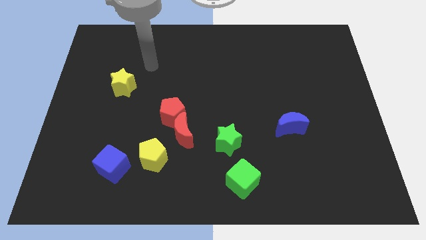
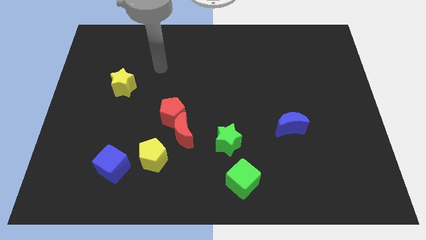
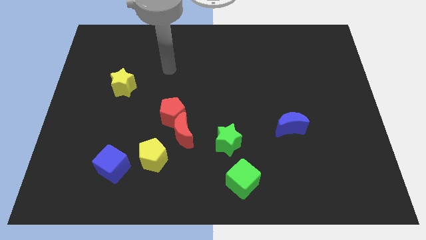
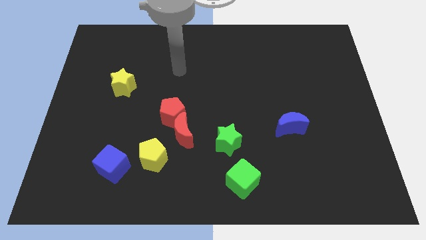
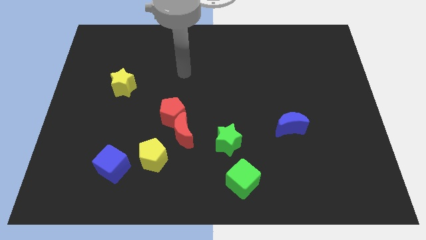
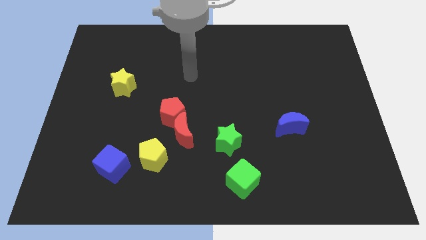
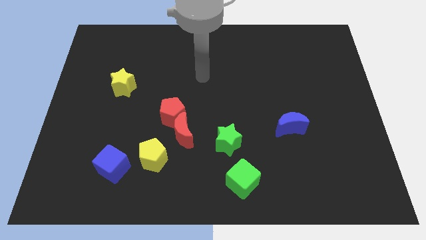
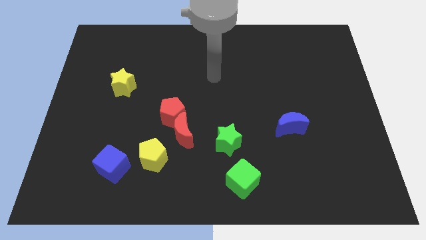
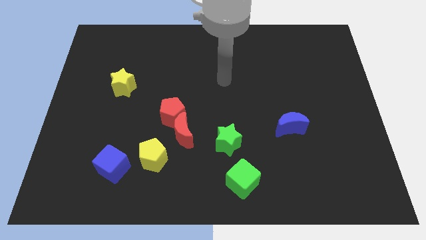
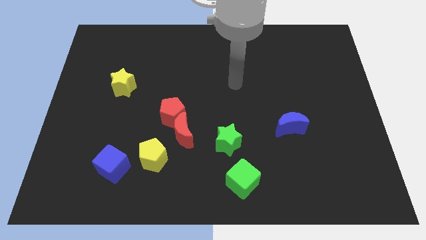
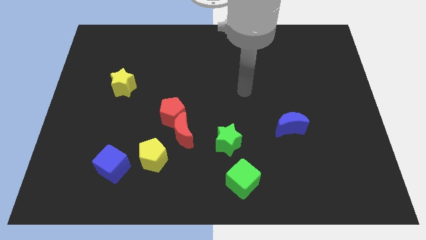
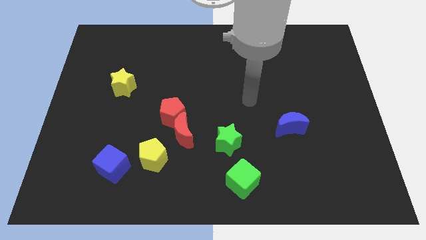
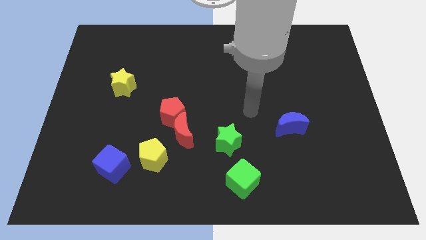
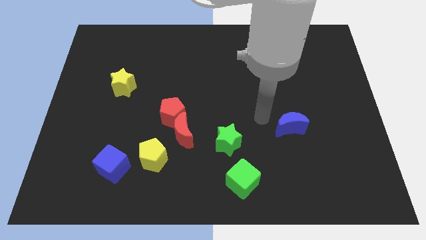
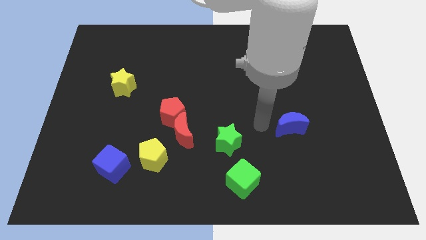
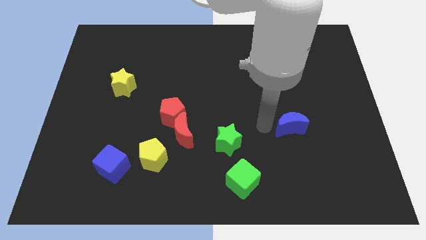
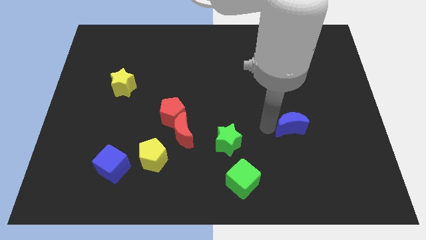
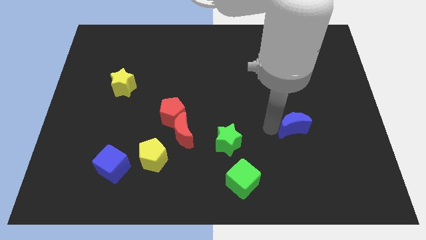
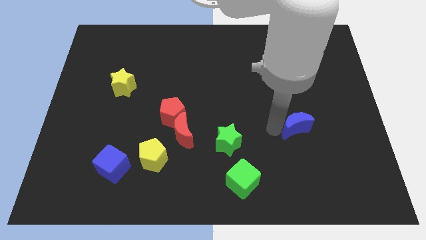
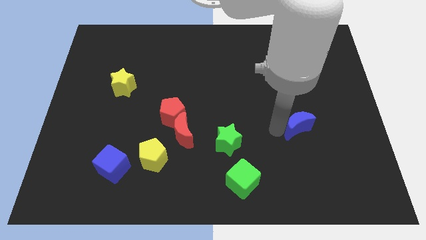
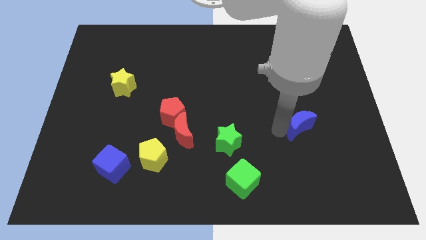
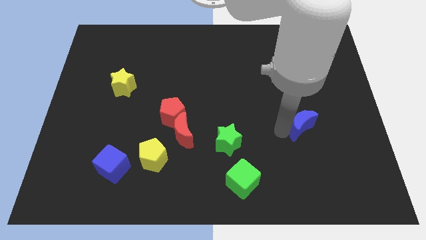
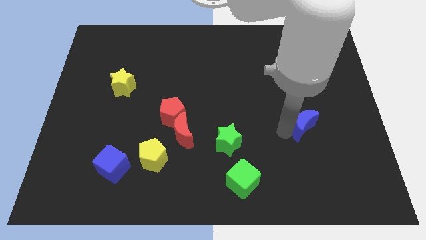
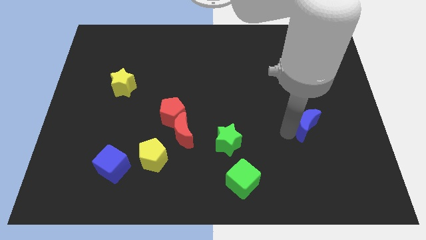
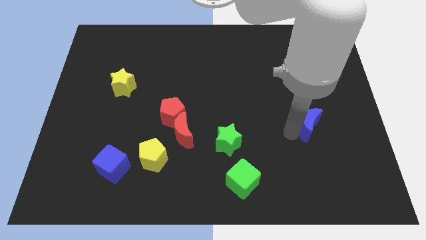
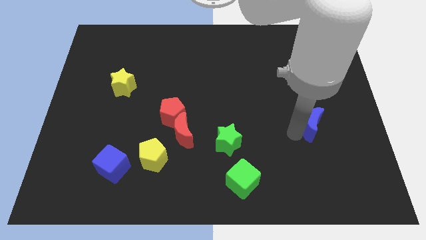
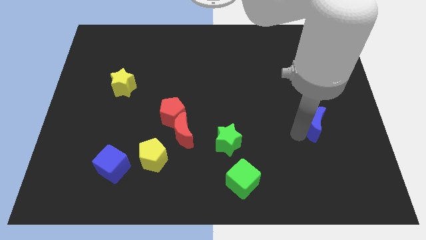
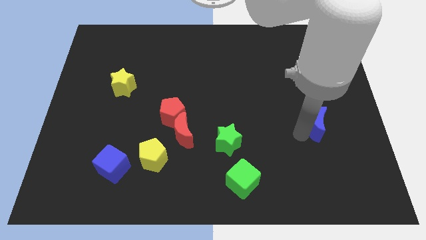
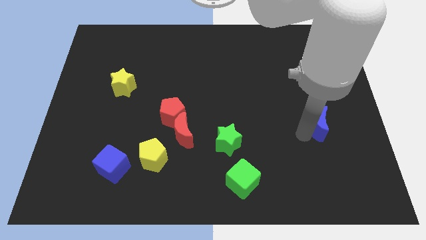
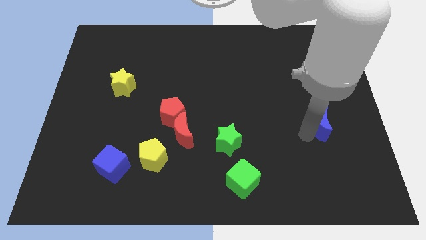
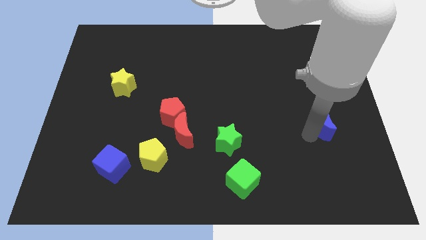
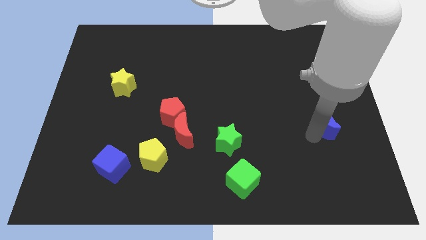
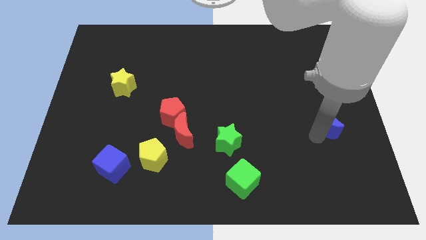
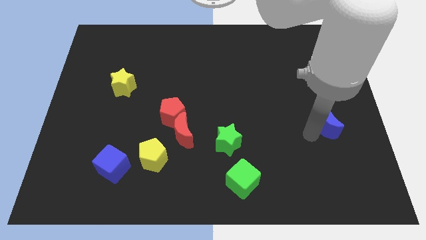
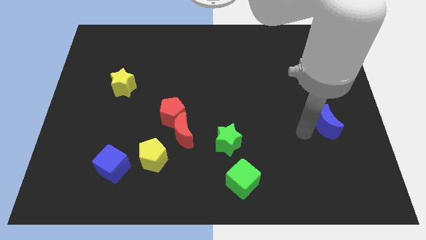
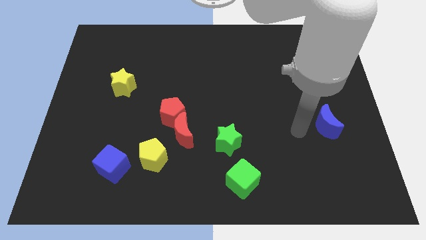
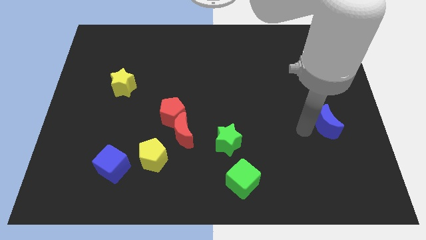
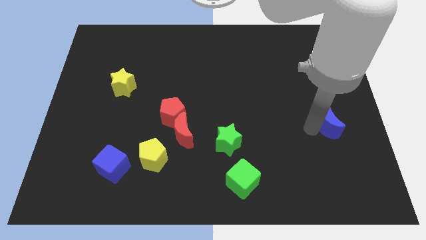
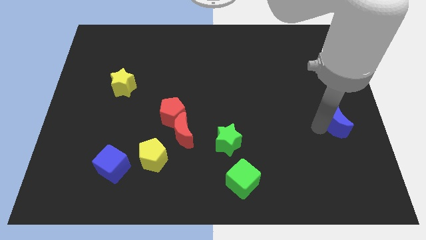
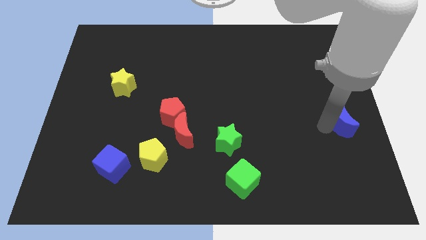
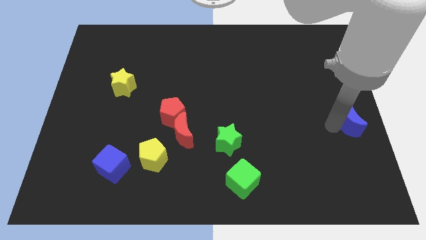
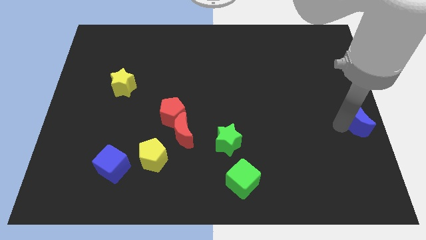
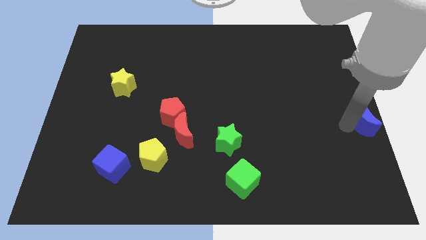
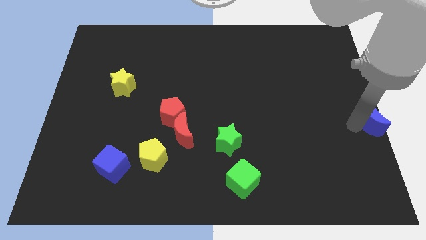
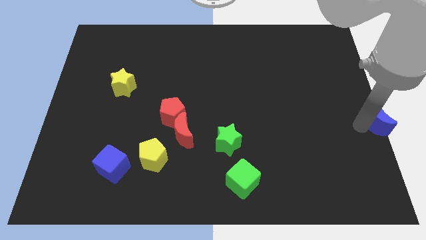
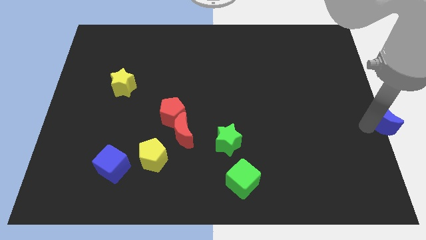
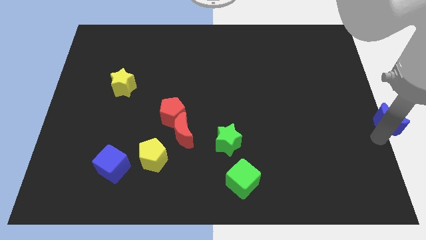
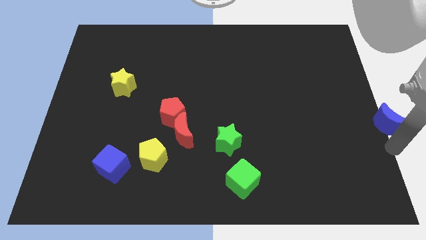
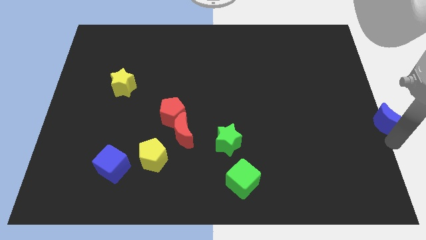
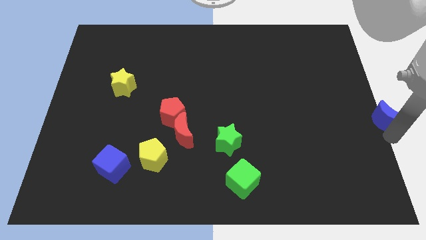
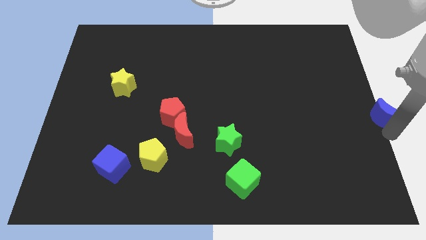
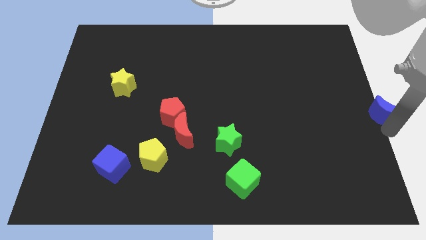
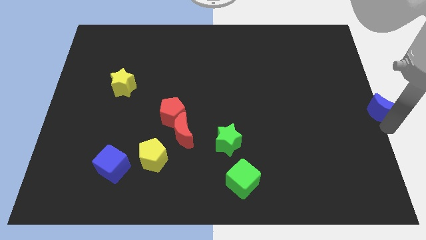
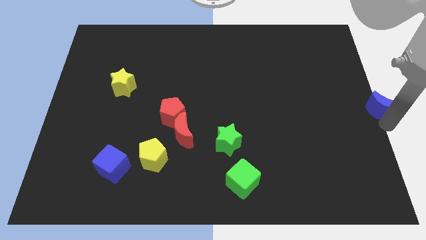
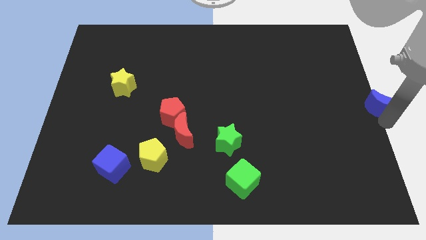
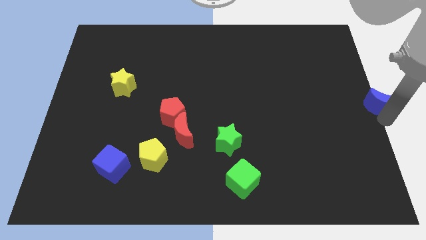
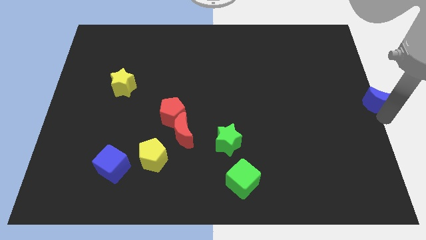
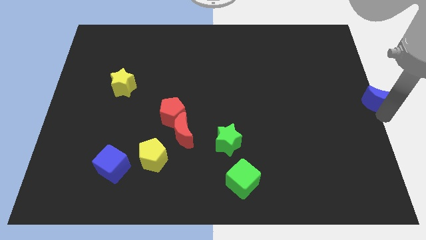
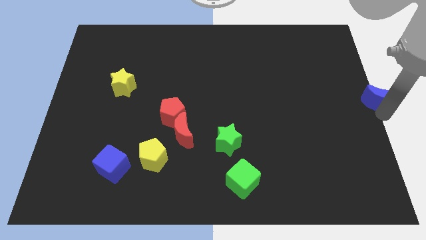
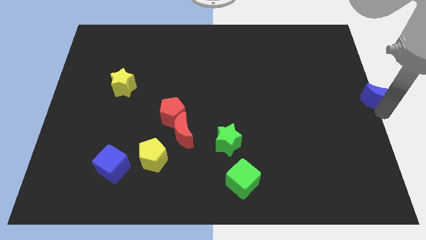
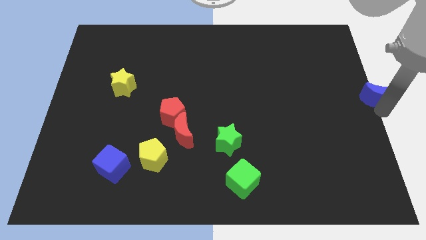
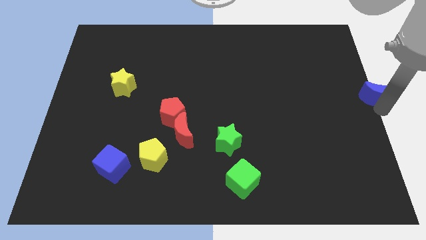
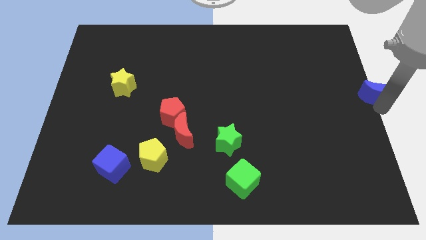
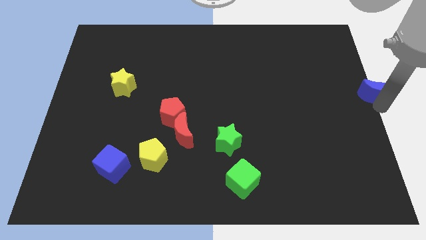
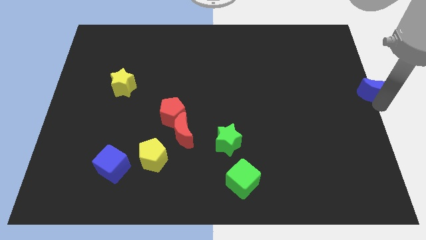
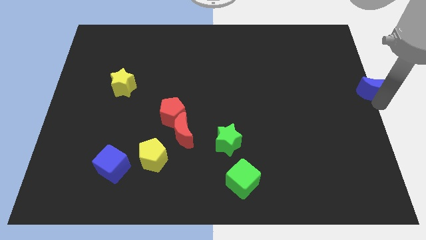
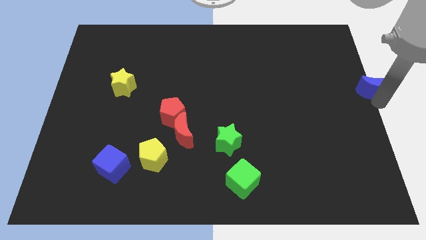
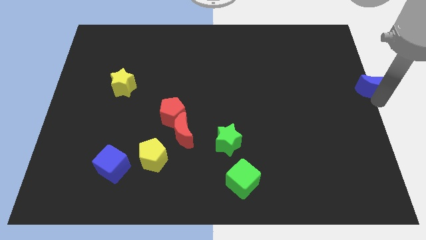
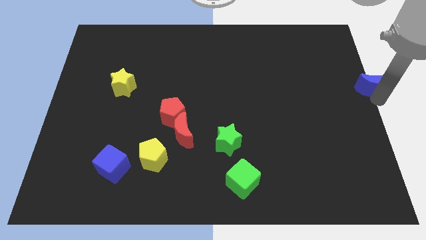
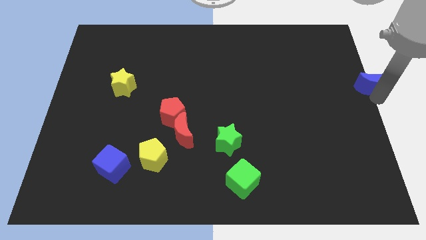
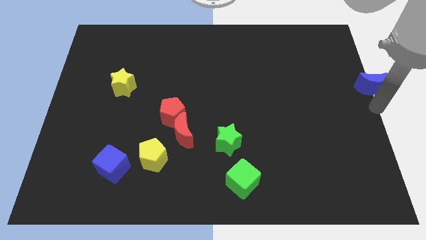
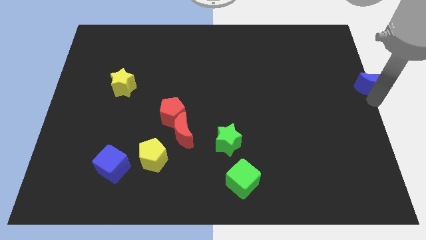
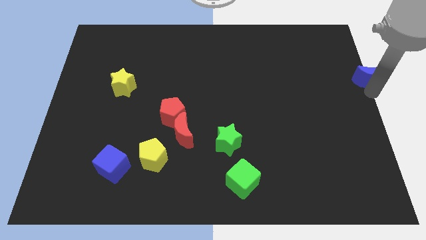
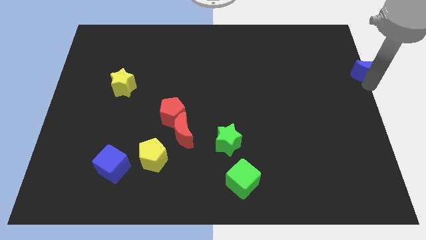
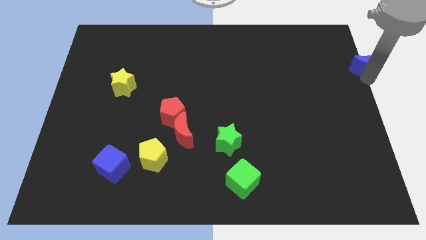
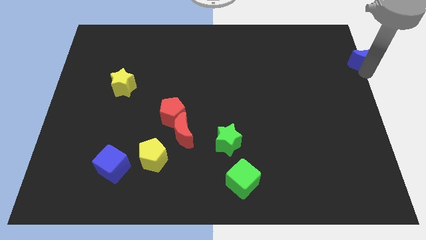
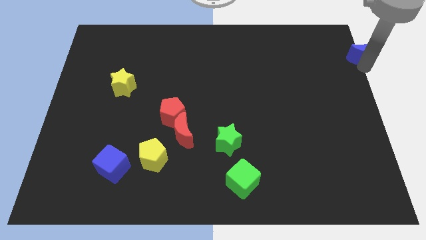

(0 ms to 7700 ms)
push the blue moon to the top right
